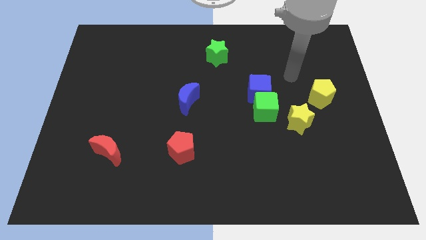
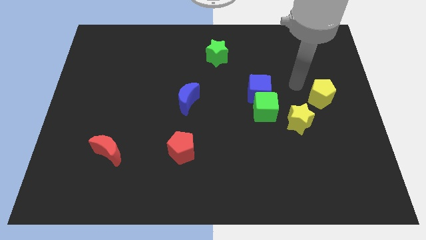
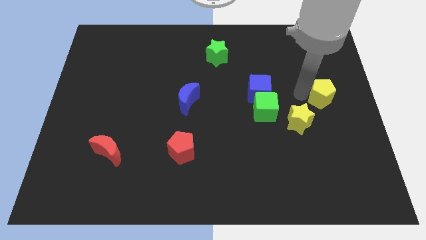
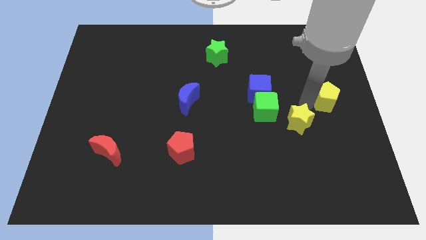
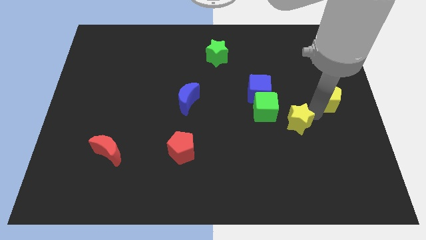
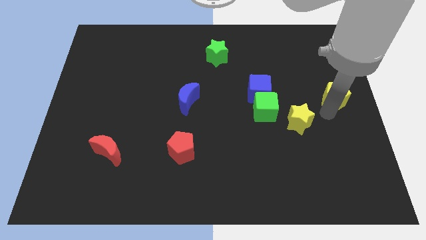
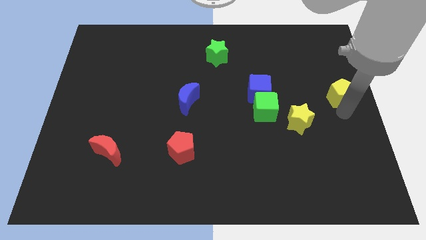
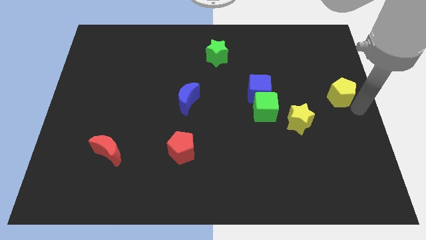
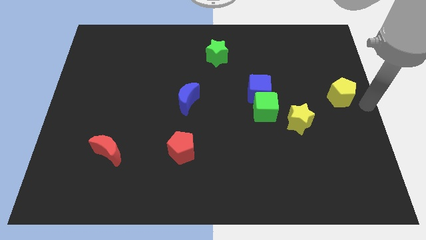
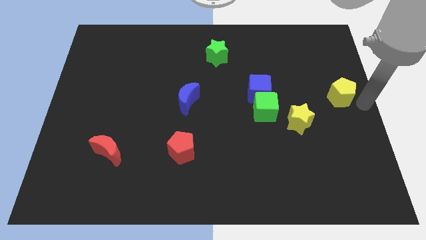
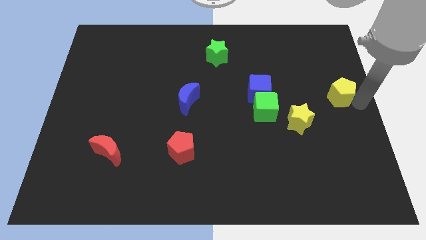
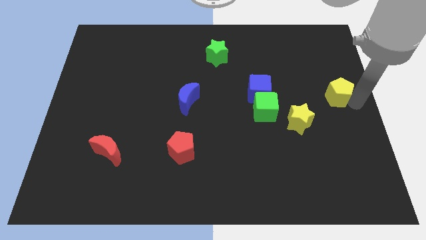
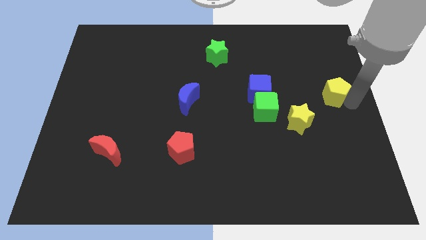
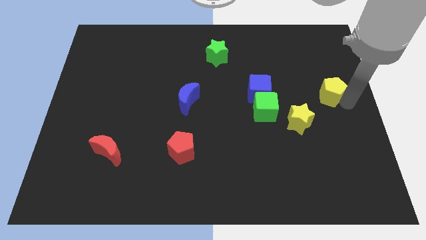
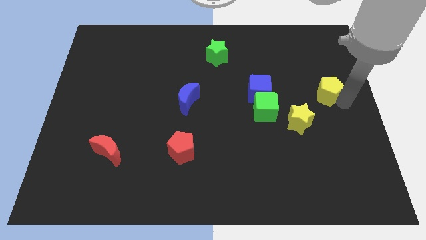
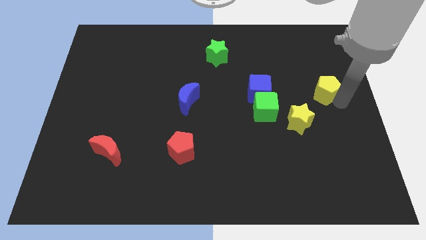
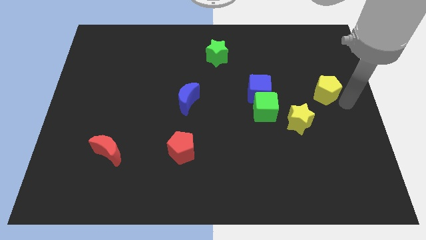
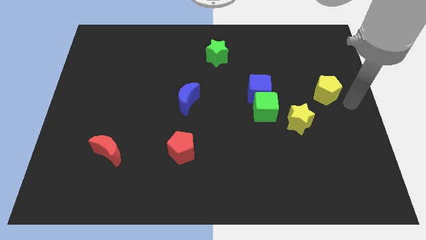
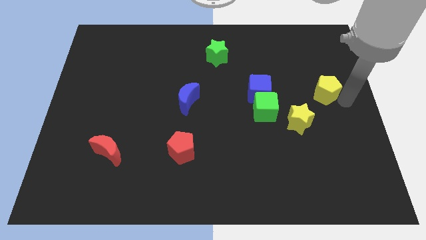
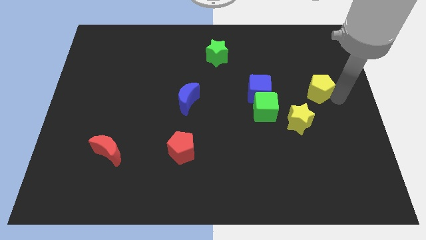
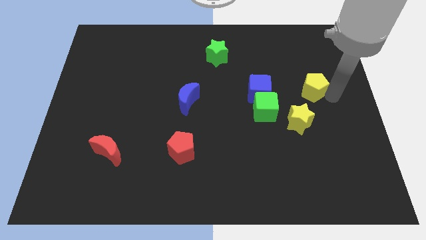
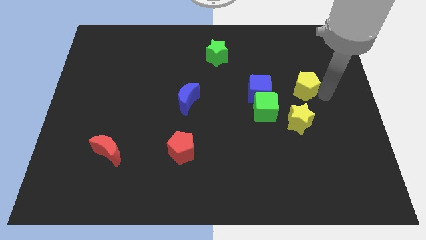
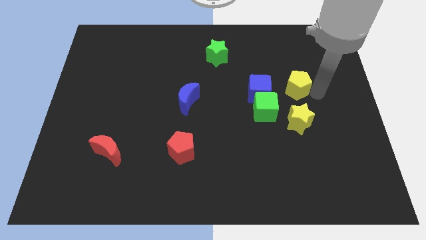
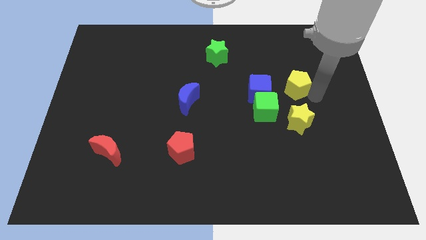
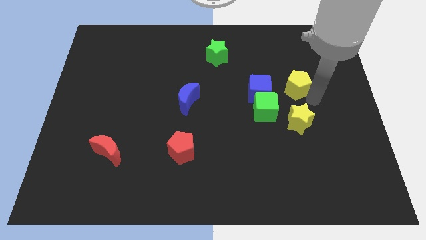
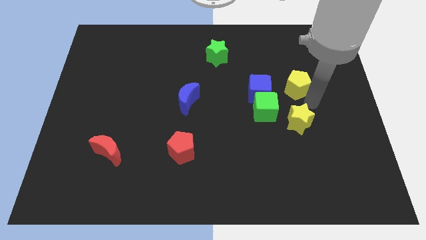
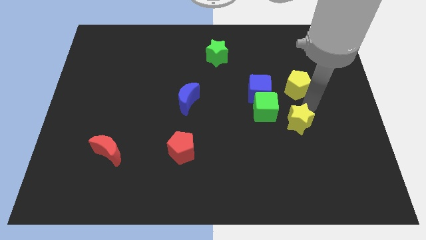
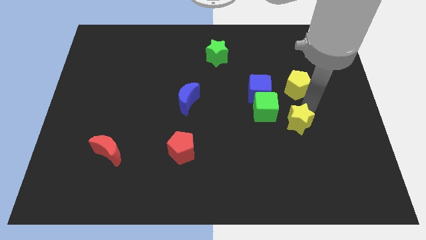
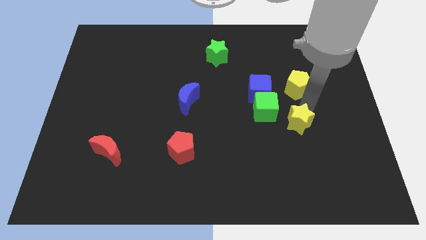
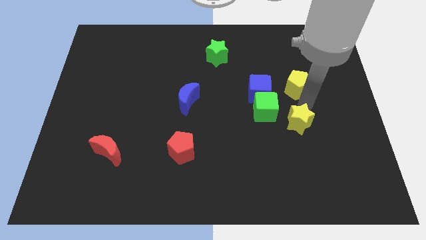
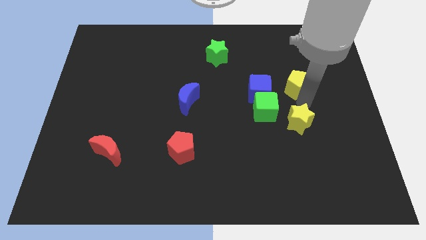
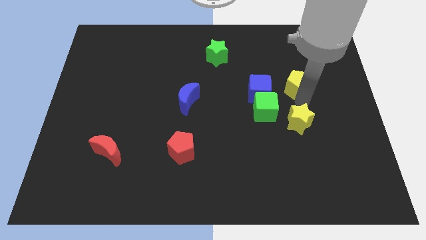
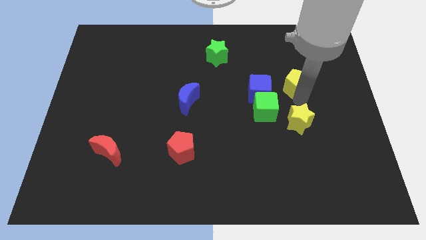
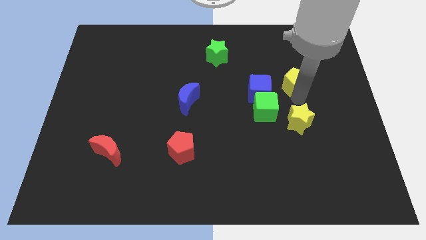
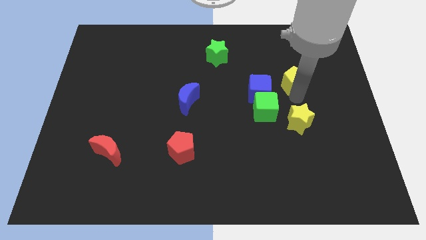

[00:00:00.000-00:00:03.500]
move the yellow pentagon slightly diagonally upwards and left

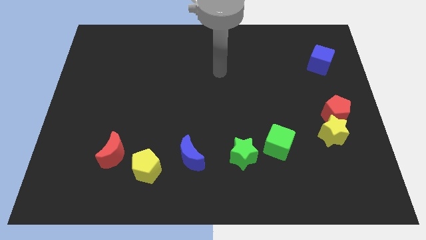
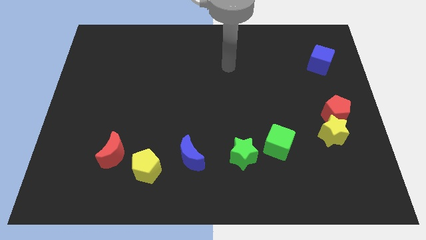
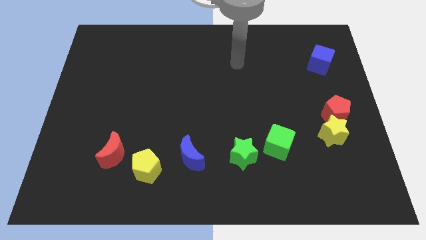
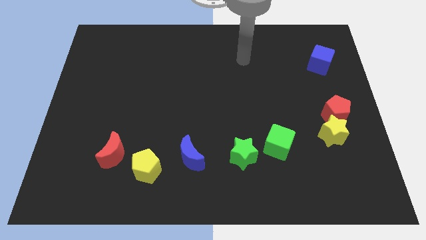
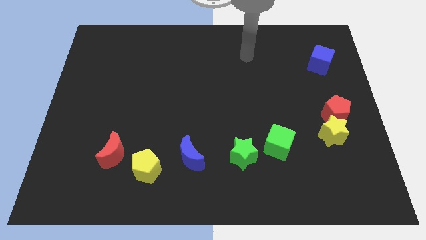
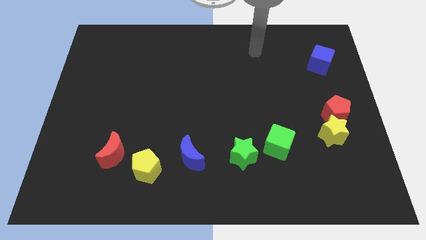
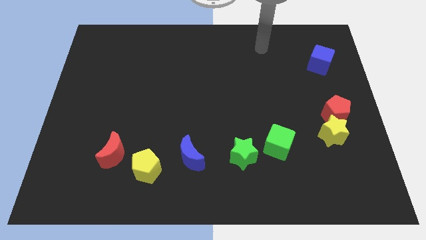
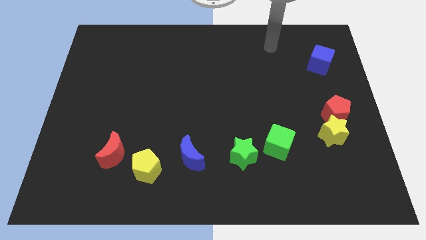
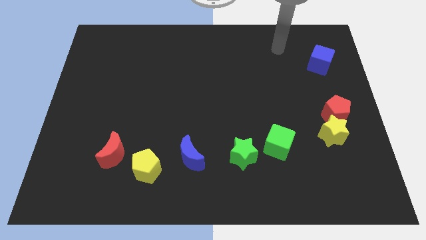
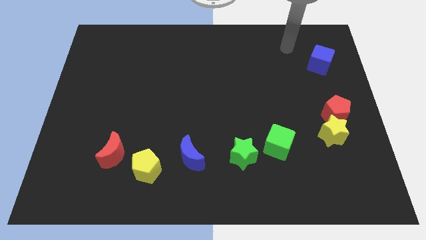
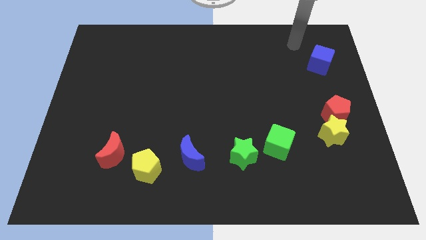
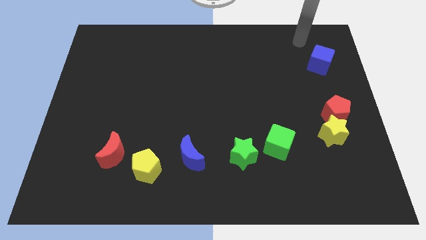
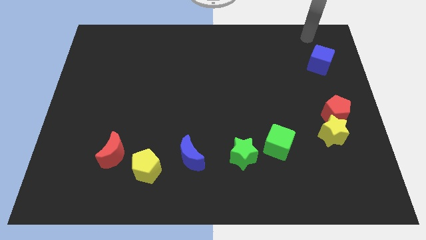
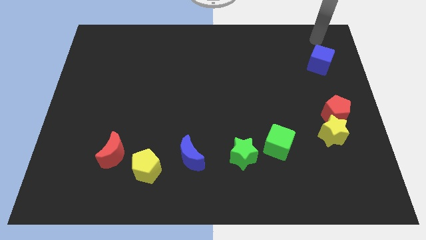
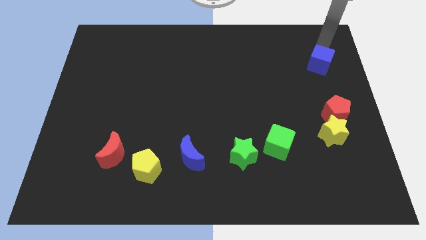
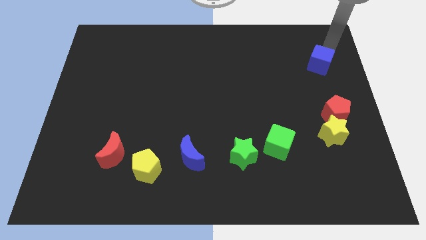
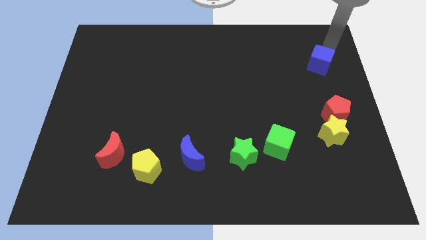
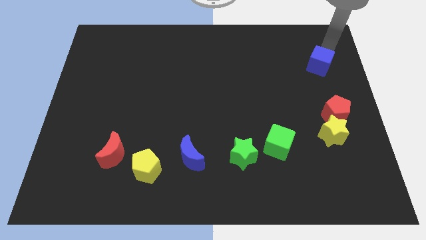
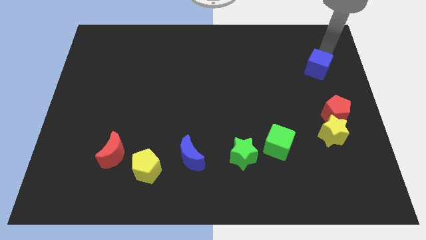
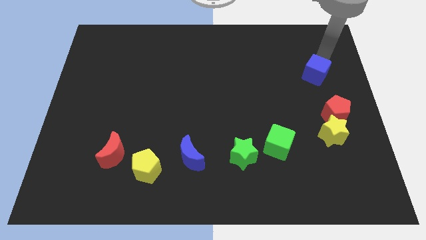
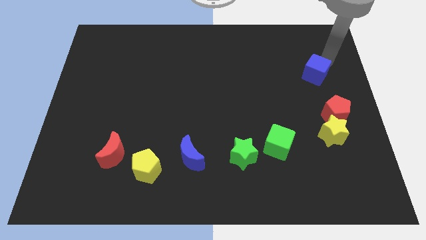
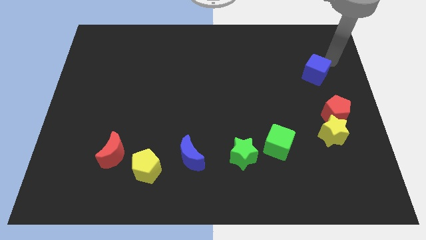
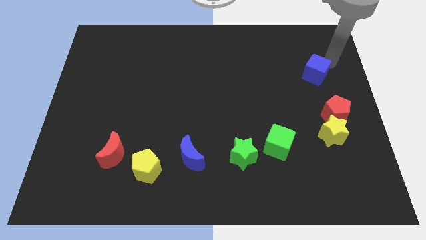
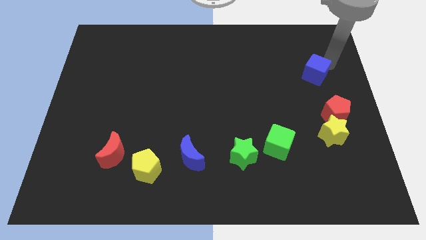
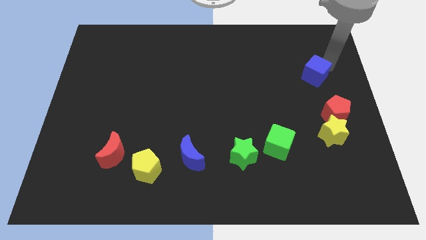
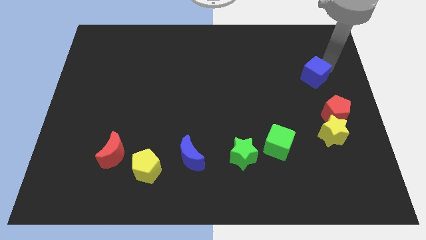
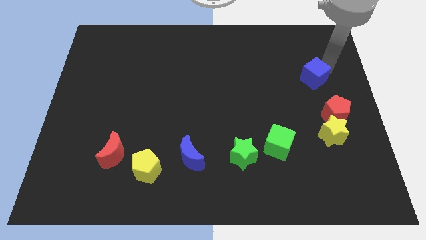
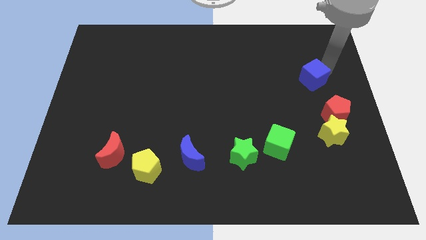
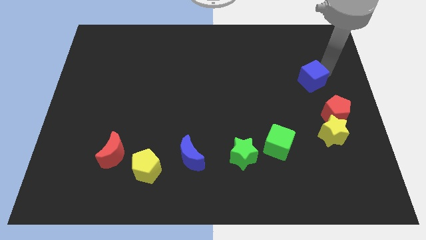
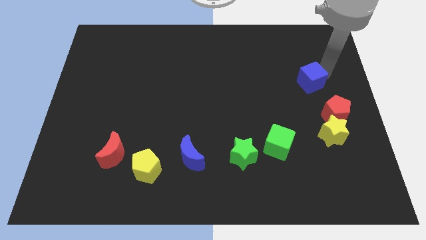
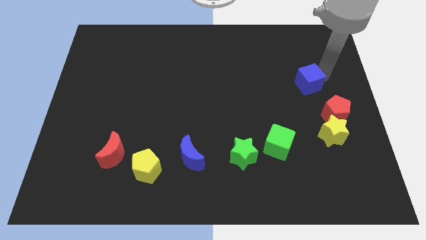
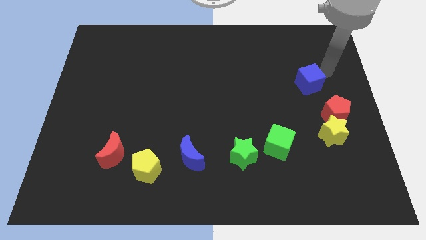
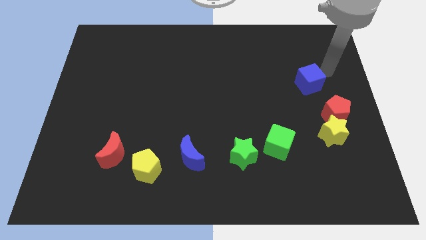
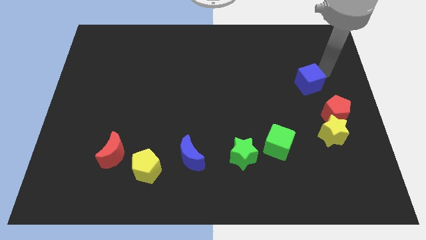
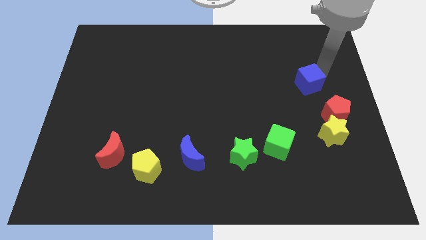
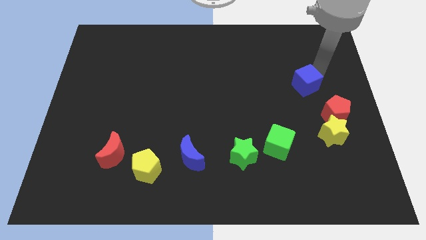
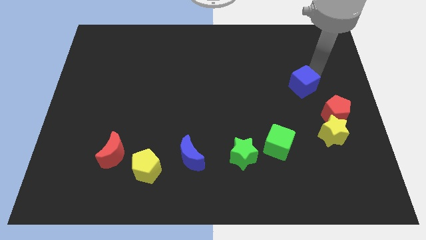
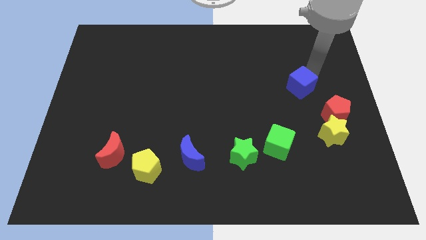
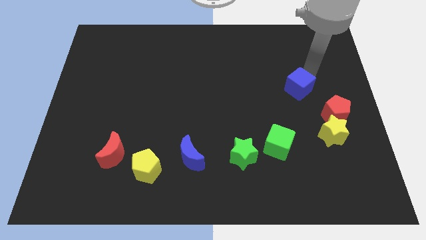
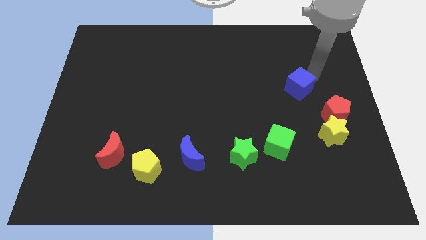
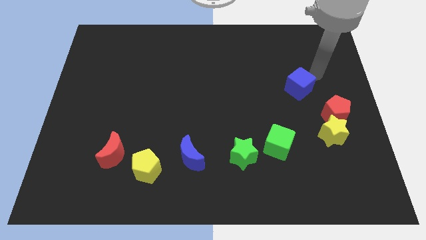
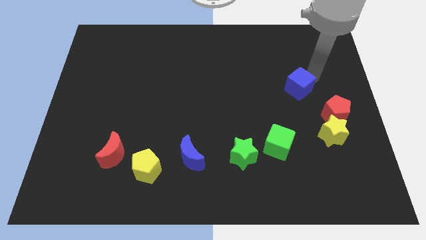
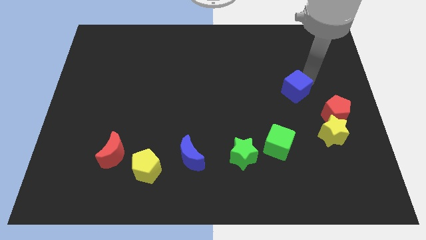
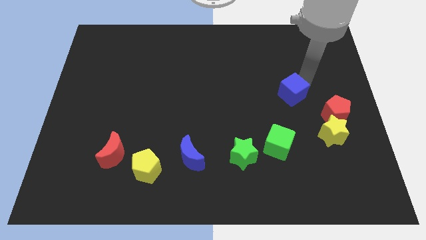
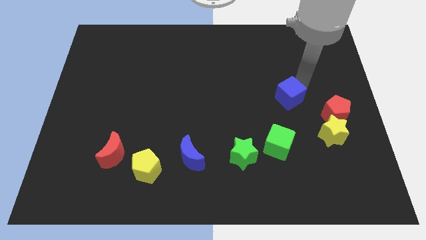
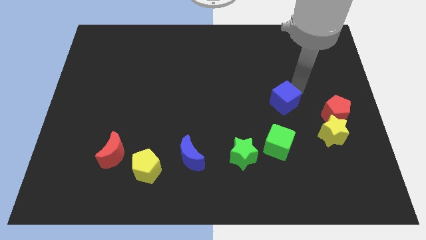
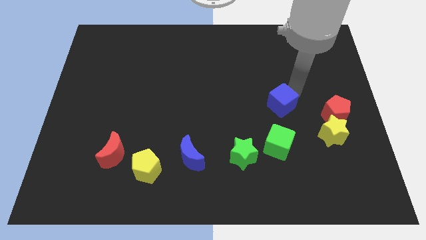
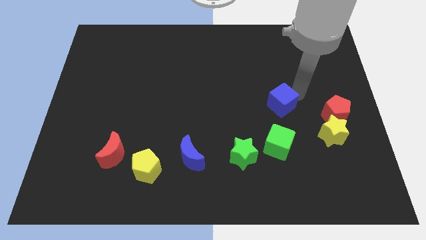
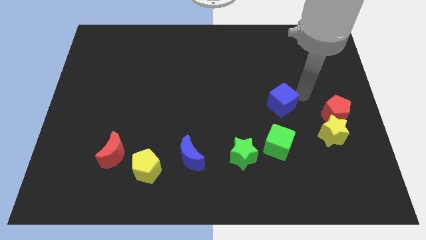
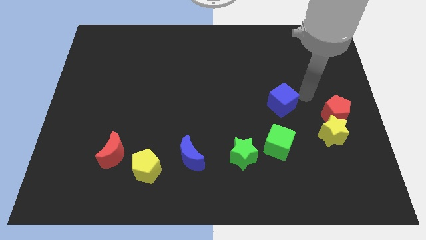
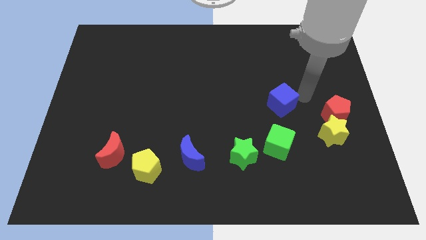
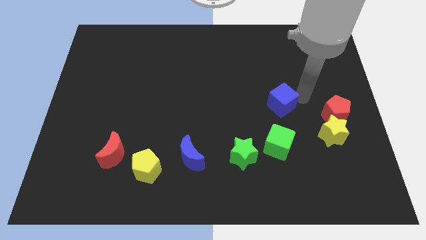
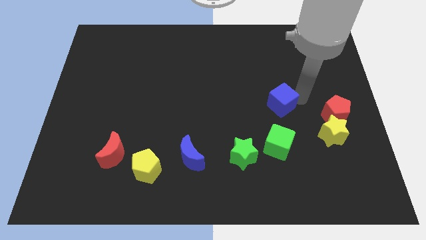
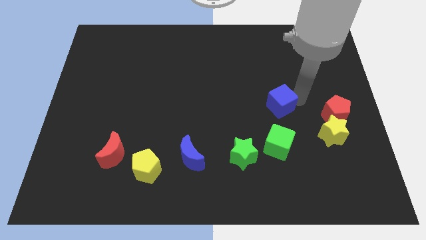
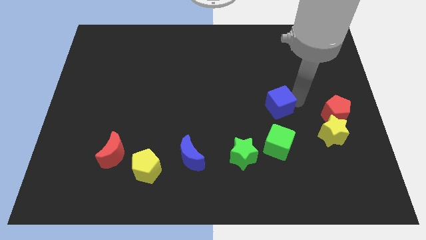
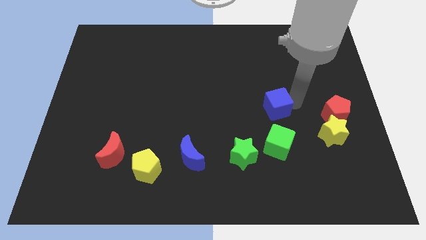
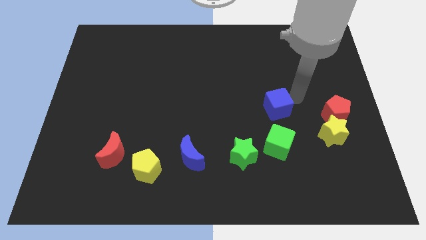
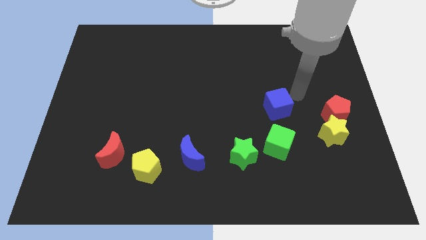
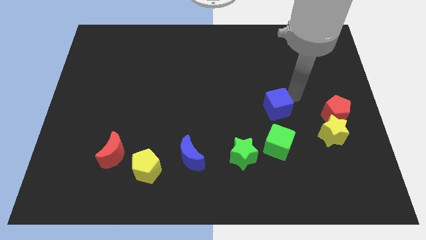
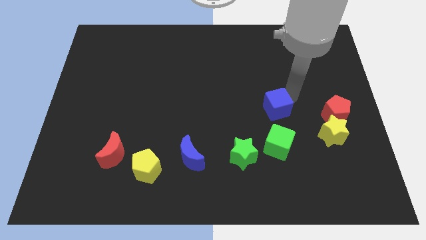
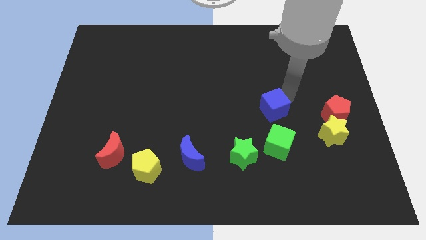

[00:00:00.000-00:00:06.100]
move the blue cube downwards and then left
